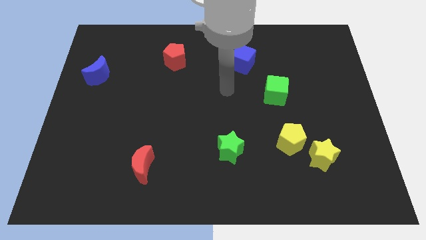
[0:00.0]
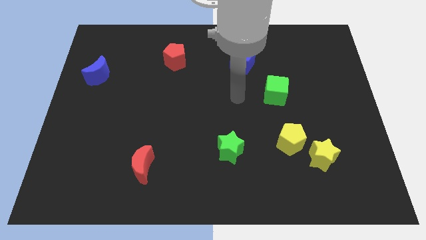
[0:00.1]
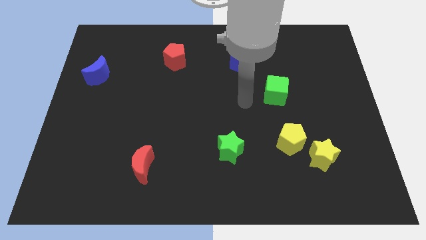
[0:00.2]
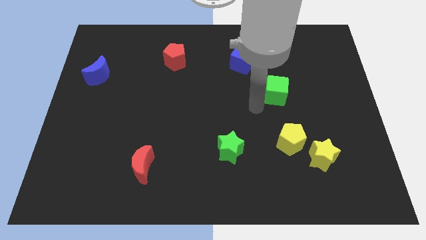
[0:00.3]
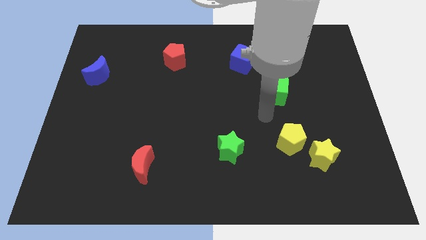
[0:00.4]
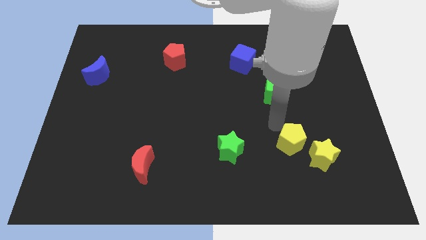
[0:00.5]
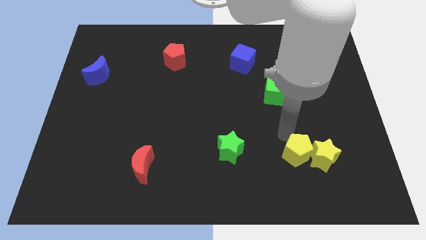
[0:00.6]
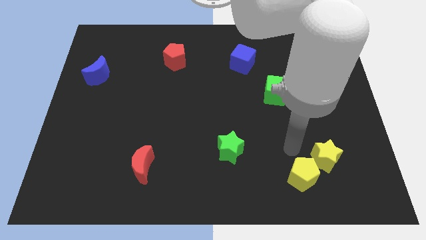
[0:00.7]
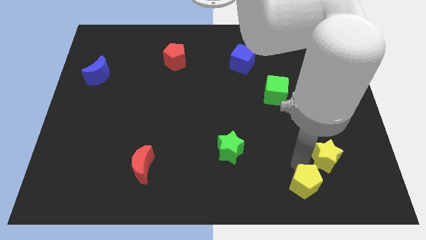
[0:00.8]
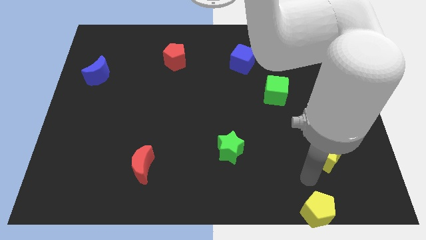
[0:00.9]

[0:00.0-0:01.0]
separate the yellow star from the yellow pentagon

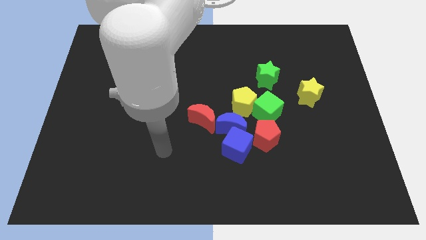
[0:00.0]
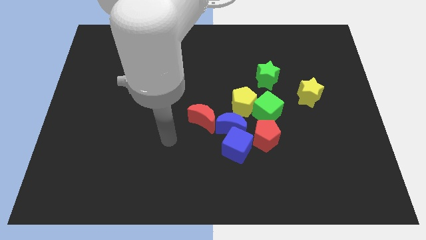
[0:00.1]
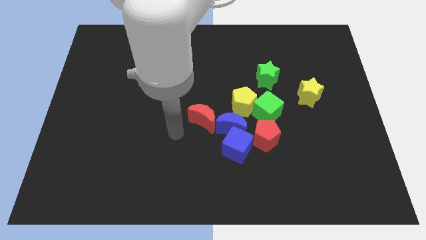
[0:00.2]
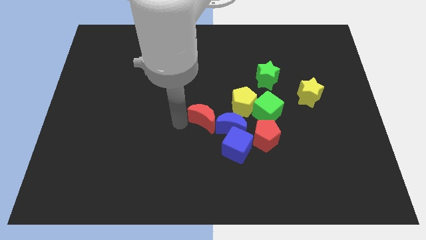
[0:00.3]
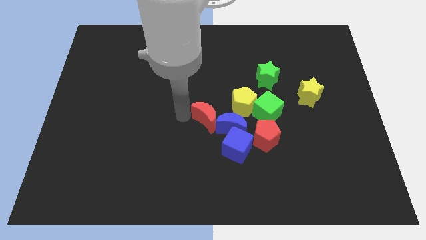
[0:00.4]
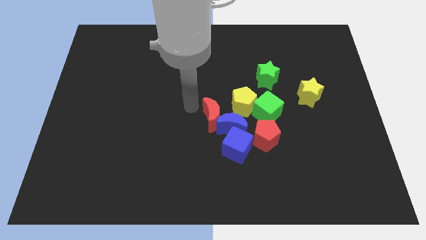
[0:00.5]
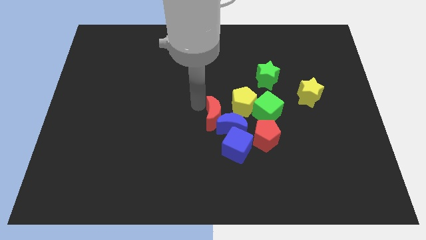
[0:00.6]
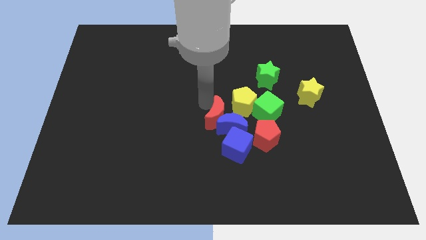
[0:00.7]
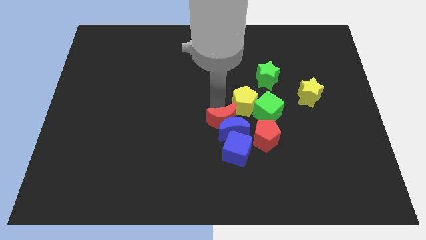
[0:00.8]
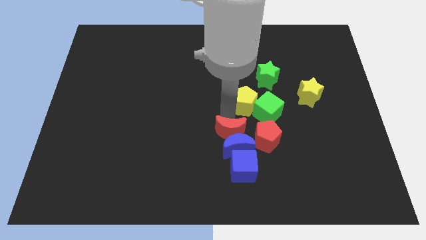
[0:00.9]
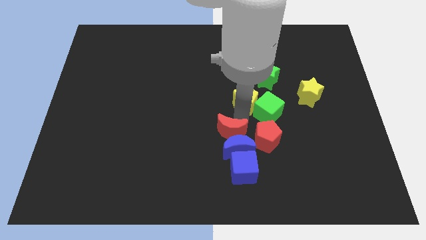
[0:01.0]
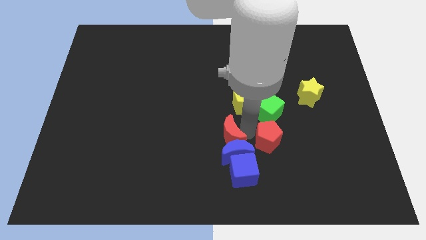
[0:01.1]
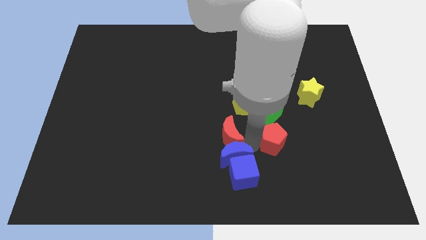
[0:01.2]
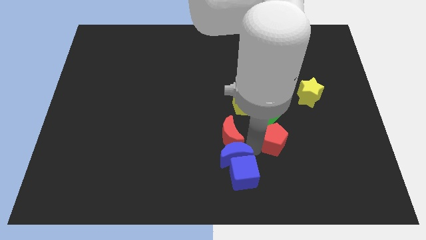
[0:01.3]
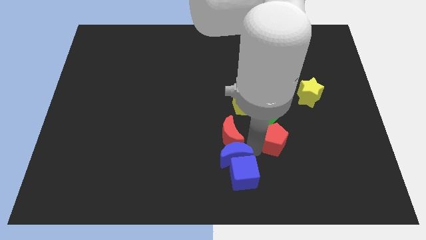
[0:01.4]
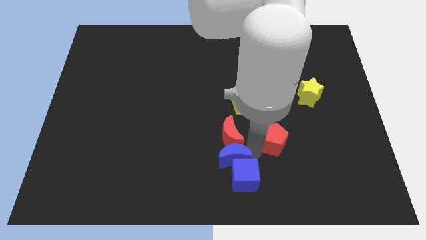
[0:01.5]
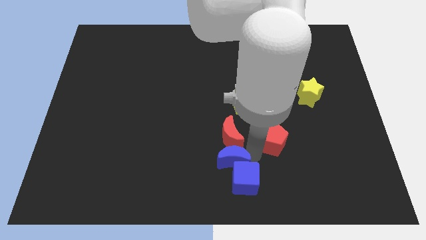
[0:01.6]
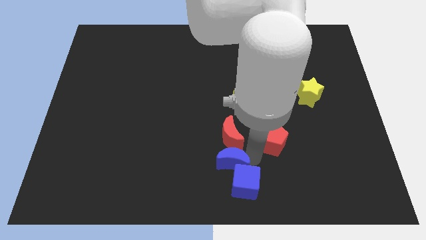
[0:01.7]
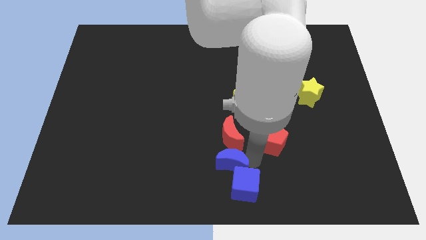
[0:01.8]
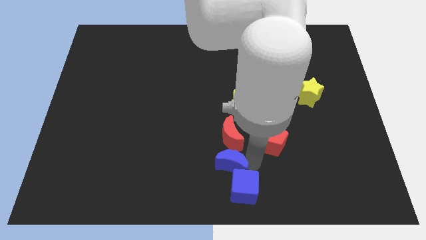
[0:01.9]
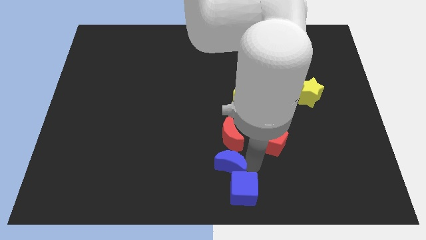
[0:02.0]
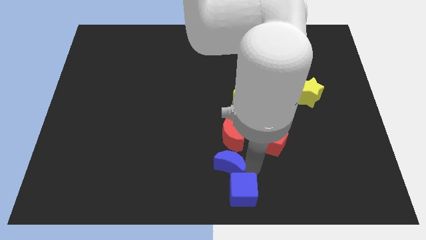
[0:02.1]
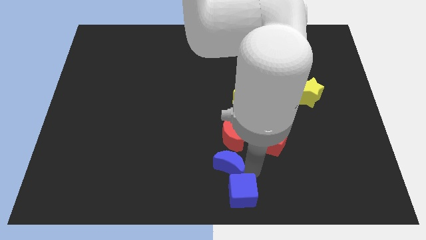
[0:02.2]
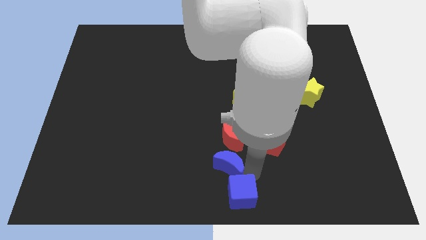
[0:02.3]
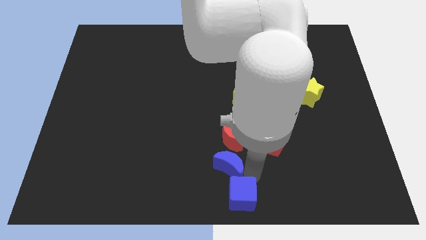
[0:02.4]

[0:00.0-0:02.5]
pull the blue cube apart from the blue moon and red pentagon

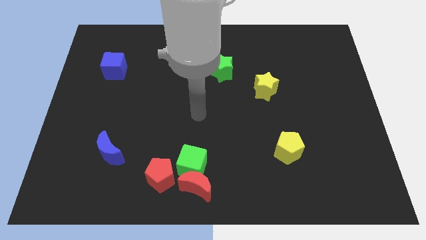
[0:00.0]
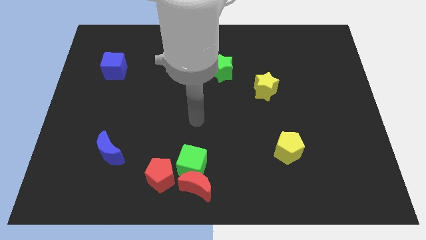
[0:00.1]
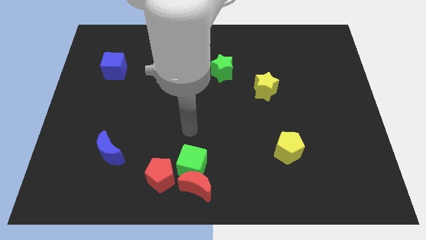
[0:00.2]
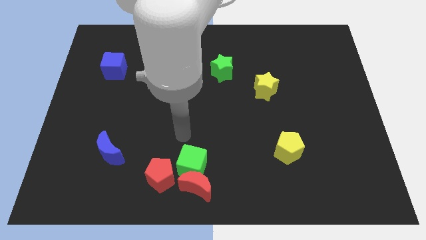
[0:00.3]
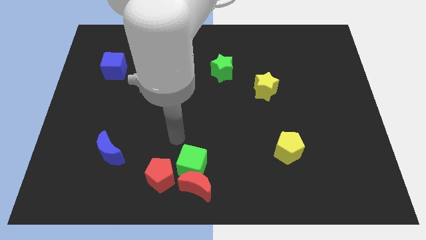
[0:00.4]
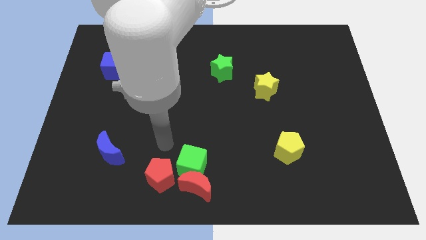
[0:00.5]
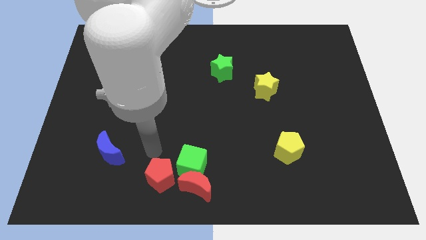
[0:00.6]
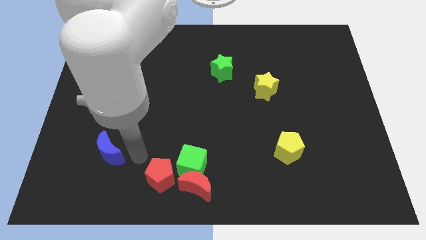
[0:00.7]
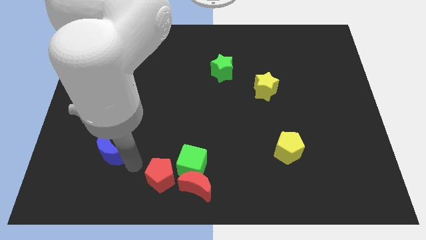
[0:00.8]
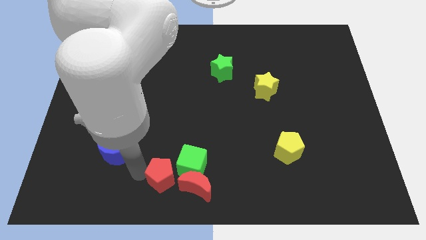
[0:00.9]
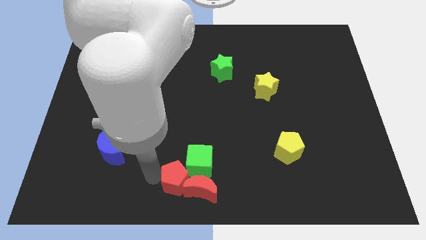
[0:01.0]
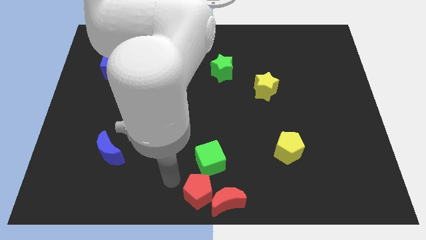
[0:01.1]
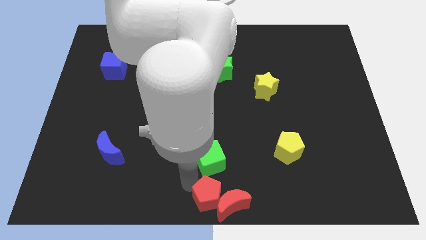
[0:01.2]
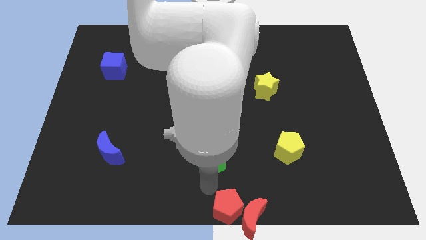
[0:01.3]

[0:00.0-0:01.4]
separate the green cube from the red moon and red pentagon

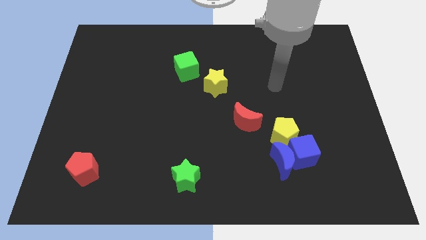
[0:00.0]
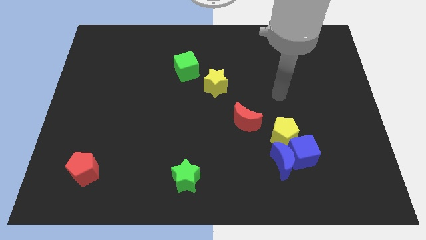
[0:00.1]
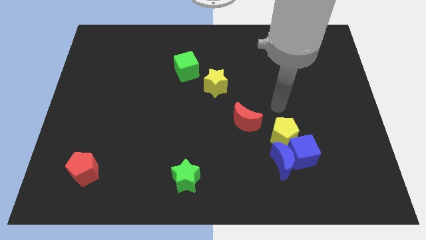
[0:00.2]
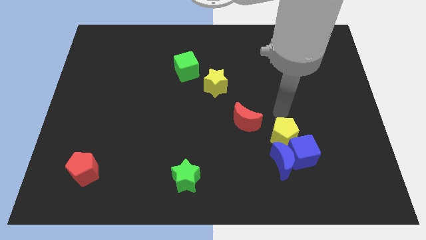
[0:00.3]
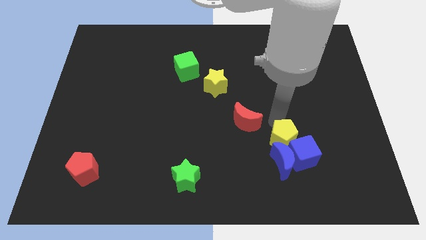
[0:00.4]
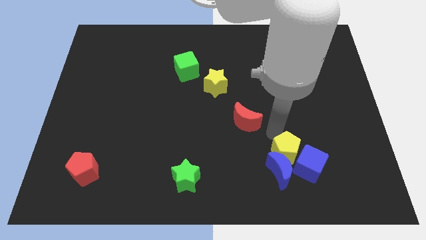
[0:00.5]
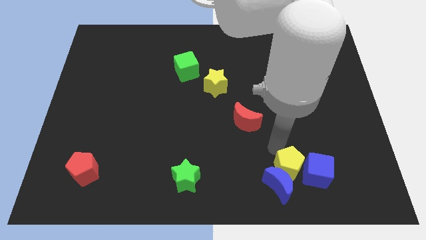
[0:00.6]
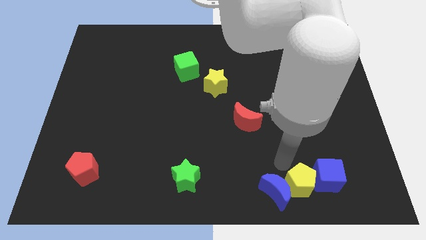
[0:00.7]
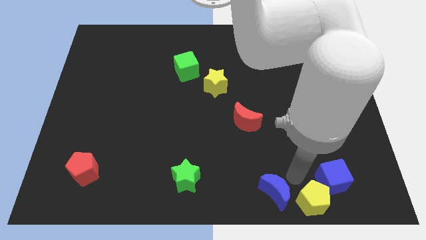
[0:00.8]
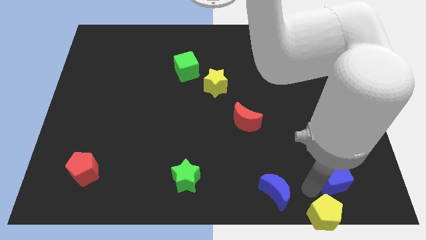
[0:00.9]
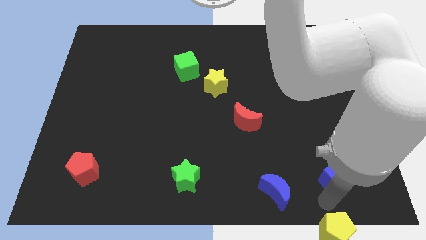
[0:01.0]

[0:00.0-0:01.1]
pull the blue cube apart from the blue moon and yellow pentagon

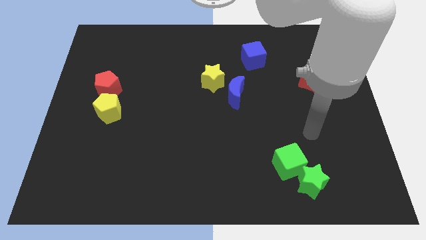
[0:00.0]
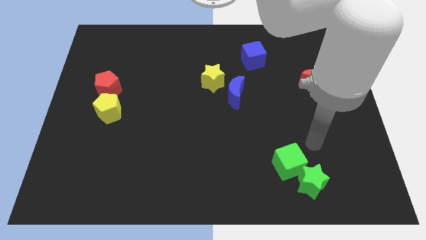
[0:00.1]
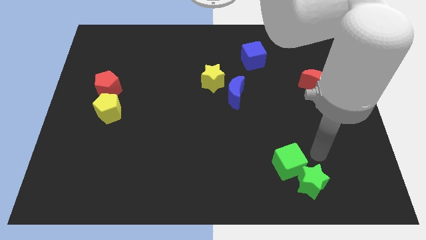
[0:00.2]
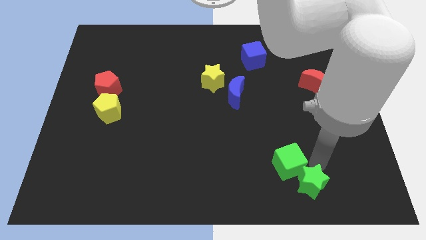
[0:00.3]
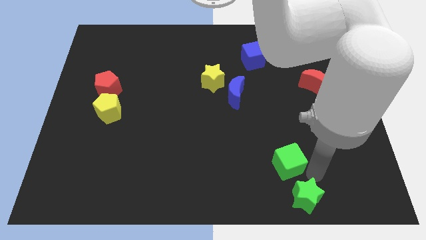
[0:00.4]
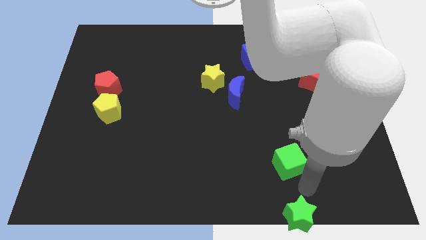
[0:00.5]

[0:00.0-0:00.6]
separate the green cube from the green star

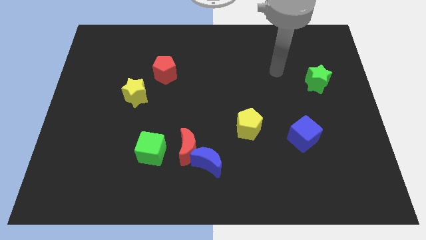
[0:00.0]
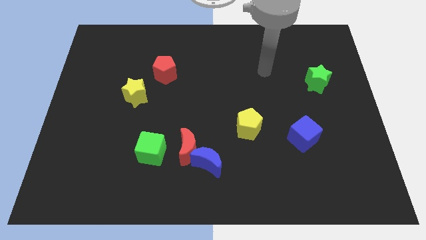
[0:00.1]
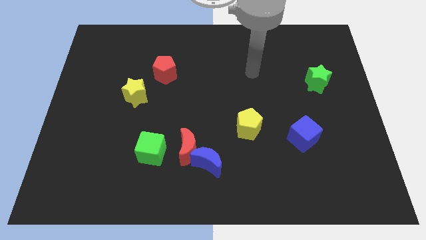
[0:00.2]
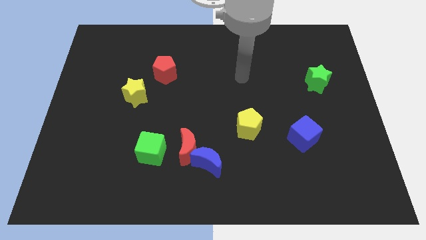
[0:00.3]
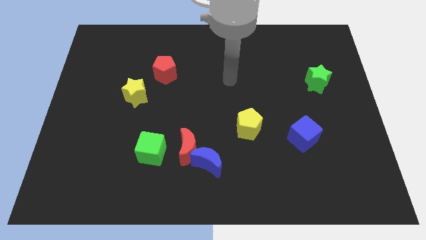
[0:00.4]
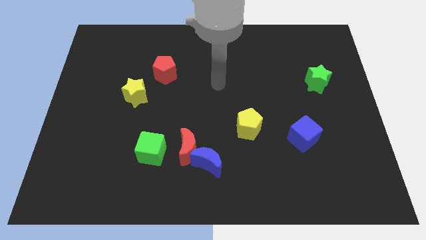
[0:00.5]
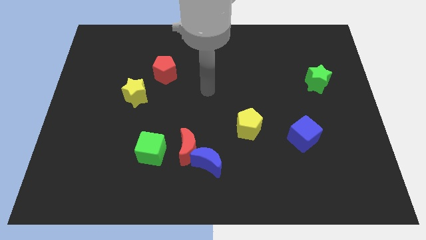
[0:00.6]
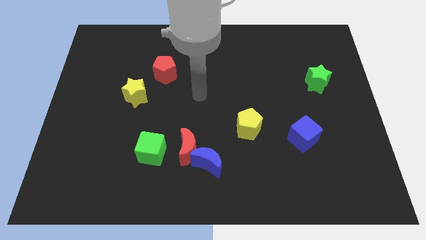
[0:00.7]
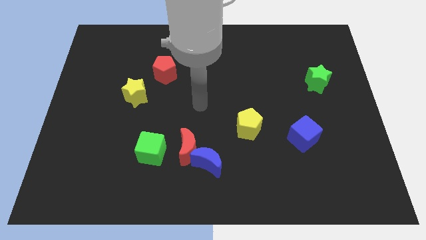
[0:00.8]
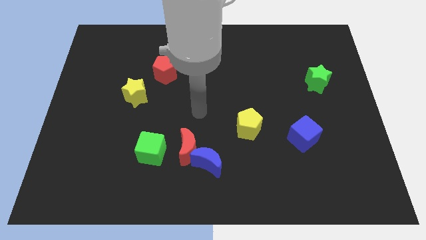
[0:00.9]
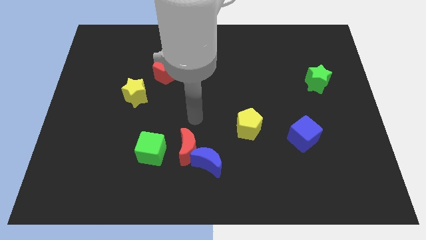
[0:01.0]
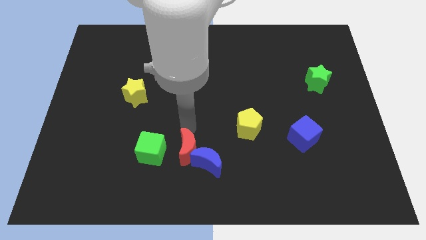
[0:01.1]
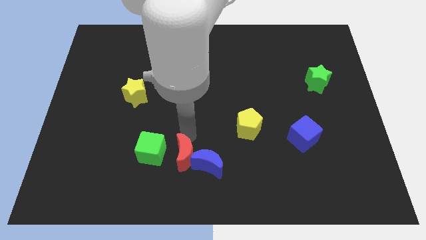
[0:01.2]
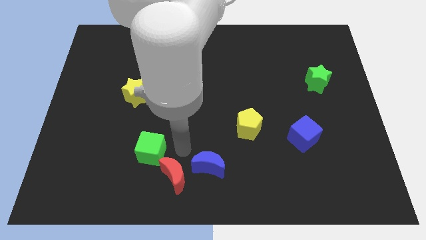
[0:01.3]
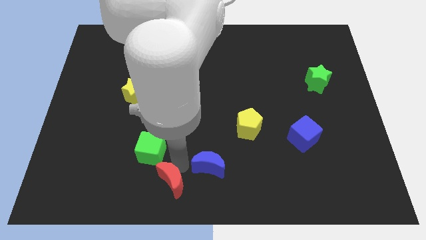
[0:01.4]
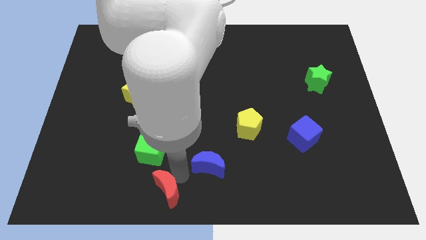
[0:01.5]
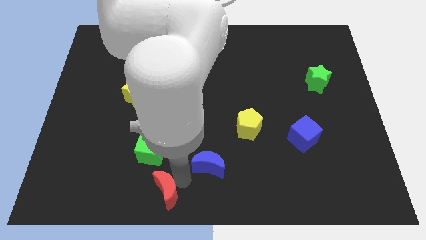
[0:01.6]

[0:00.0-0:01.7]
separate the blue moon from the red moon

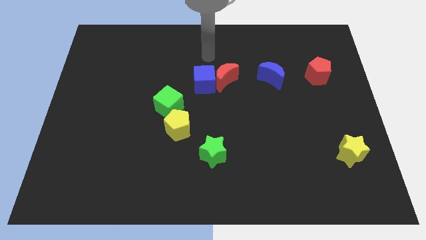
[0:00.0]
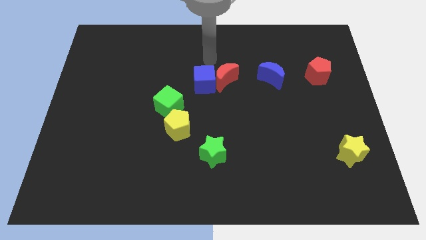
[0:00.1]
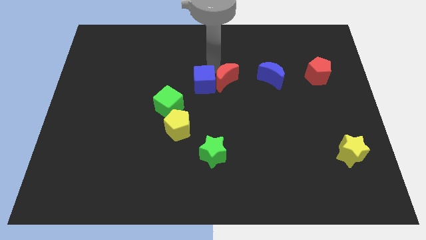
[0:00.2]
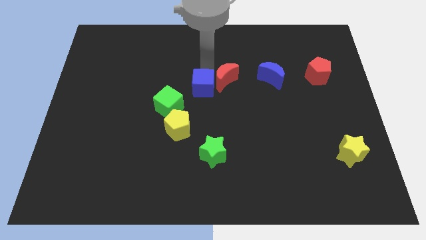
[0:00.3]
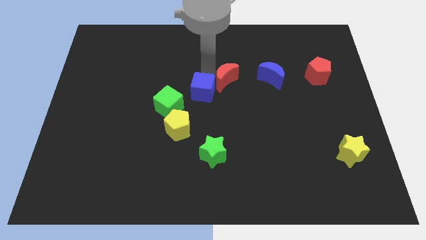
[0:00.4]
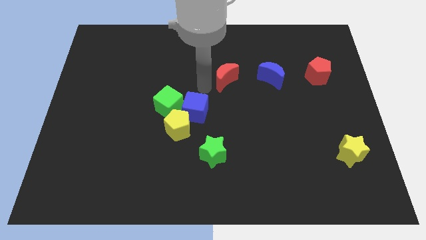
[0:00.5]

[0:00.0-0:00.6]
pull the red moon apart from the blue cube

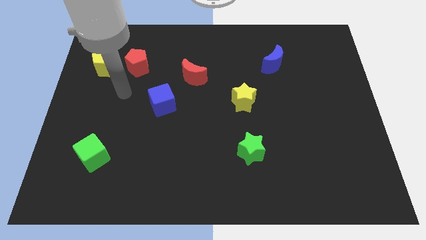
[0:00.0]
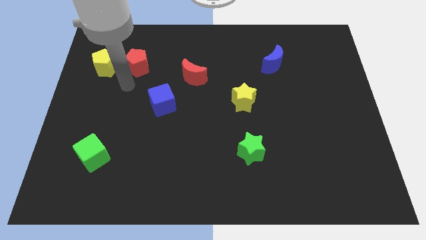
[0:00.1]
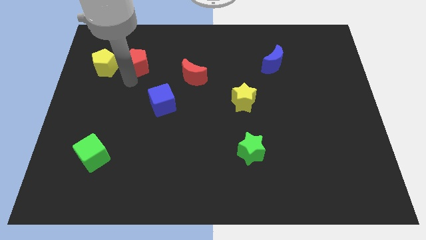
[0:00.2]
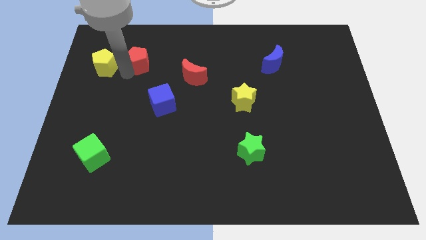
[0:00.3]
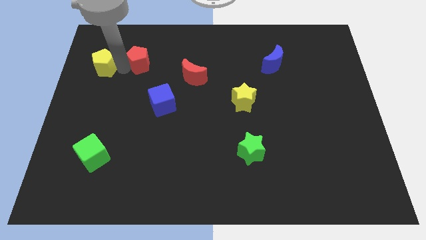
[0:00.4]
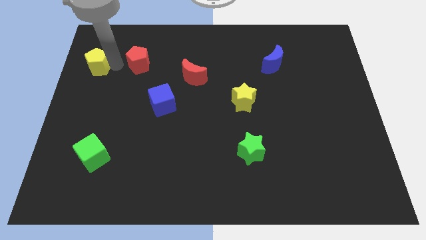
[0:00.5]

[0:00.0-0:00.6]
separate the red pentagon from the yellow pentagon
